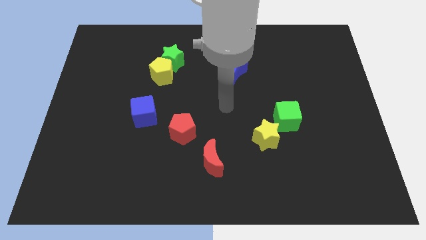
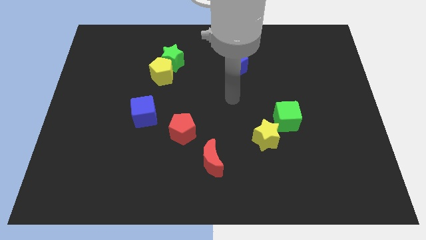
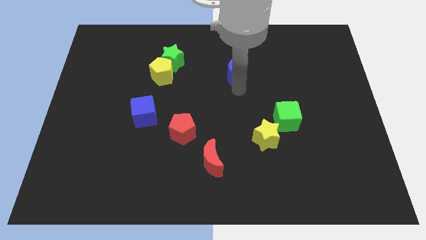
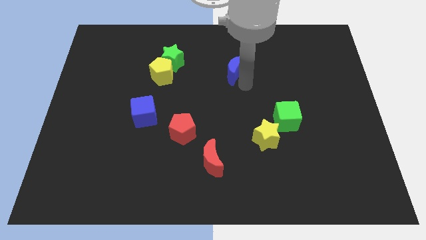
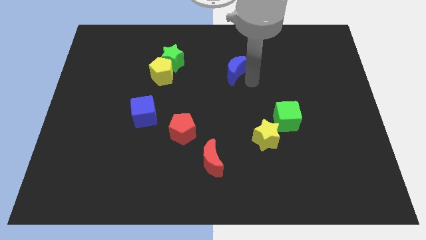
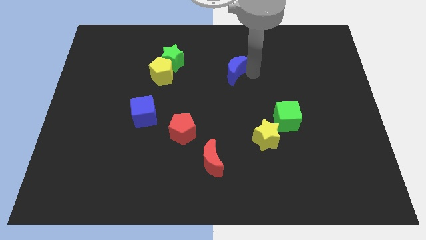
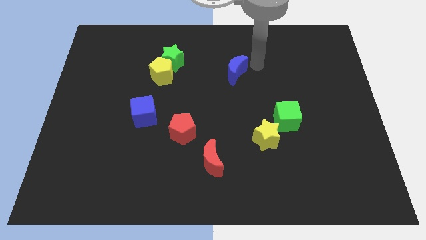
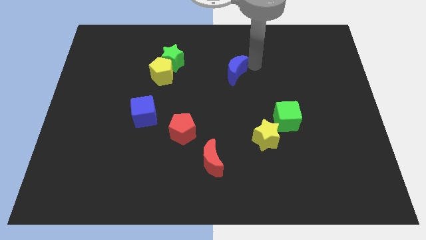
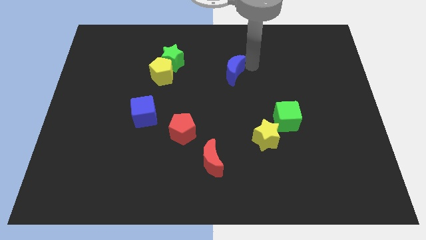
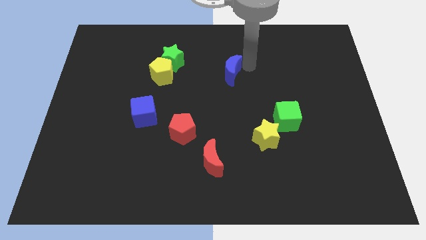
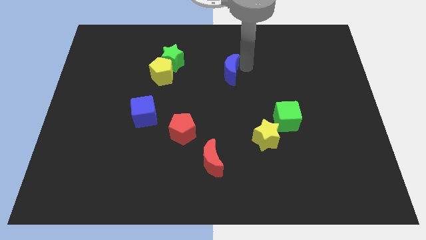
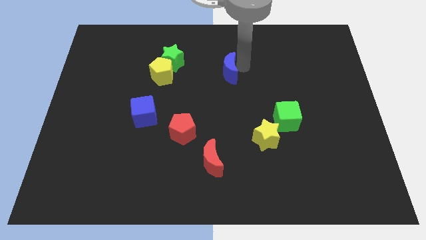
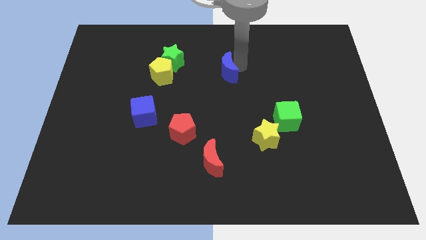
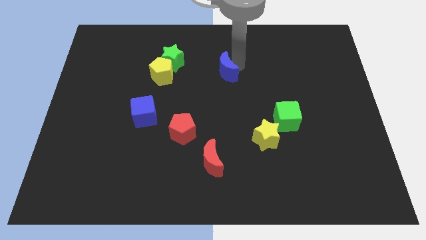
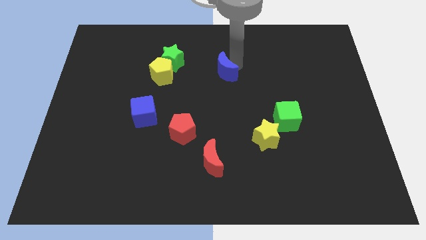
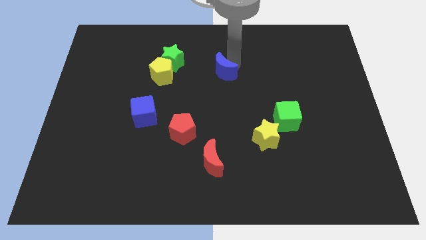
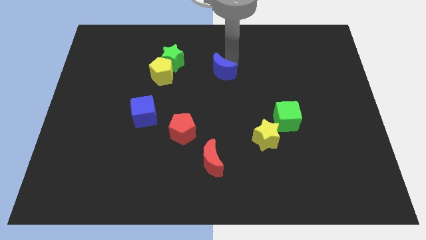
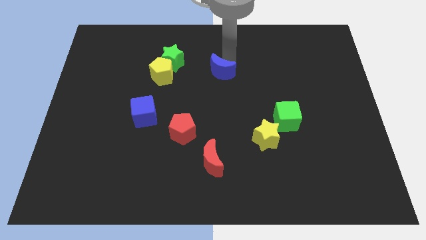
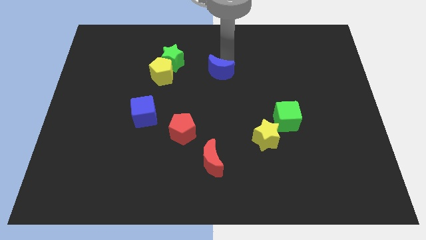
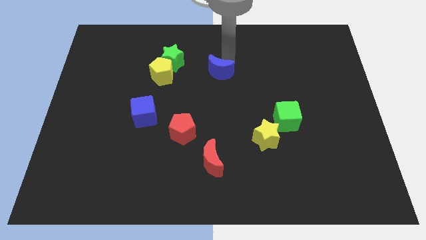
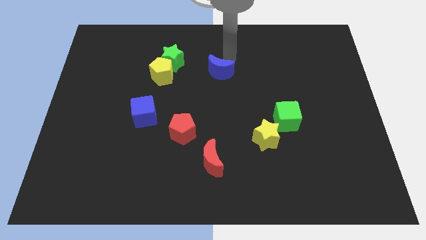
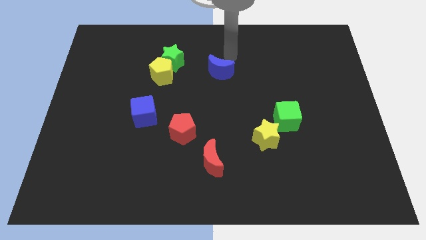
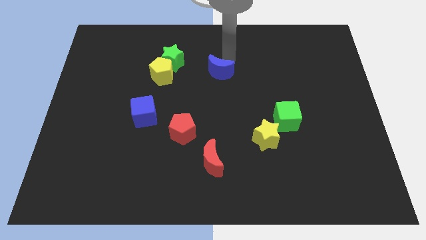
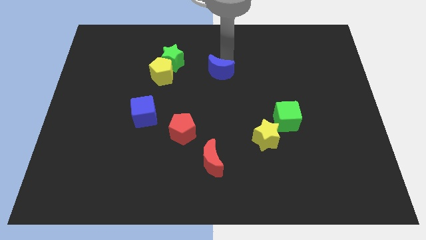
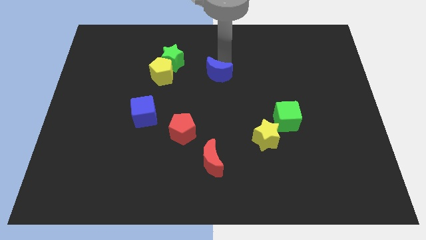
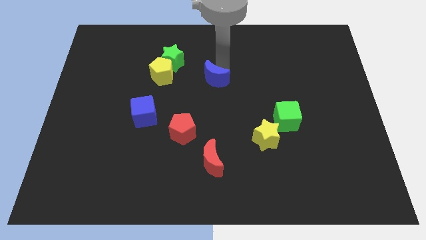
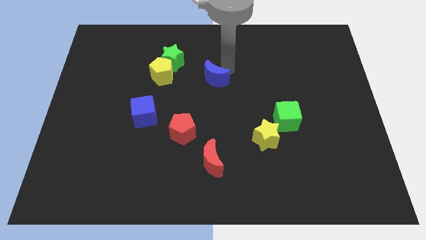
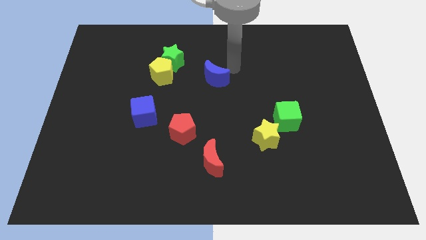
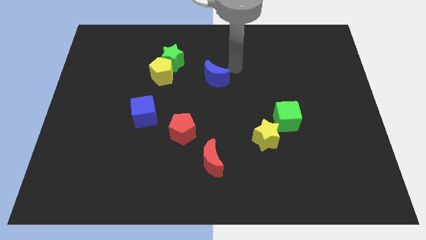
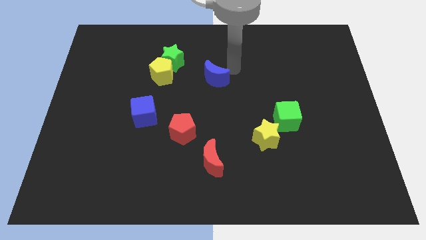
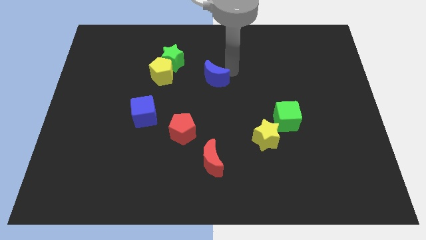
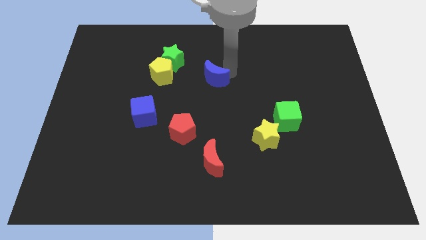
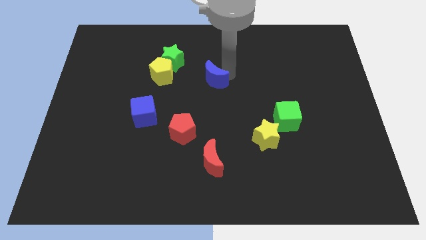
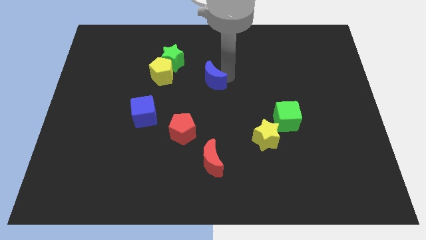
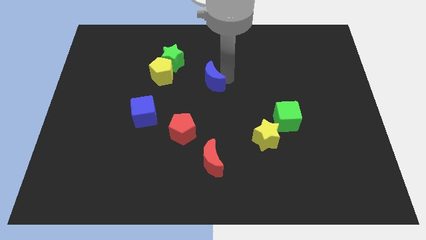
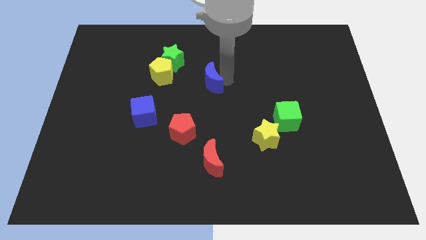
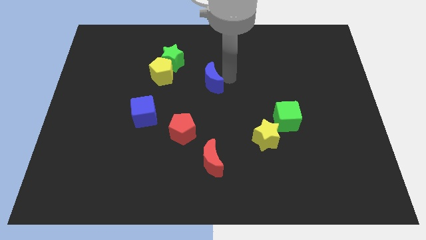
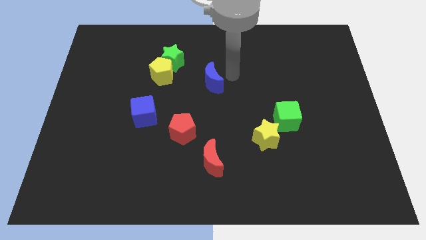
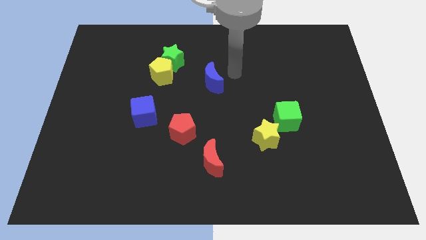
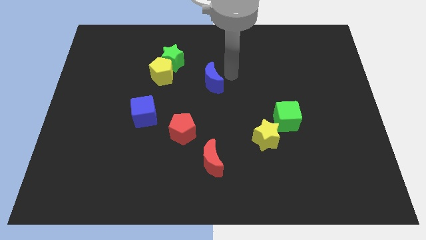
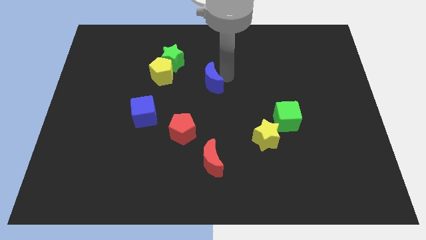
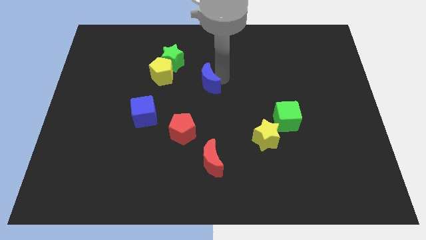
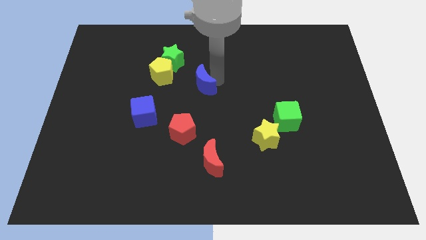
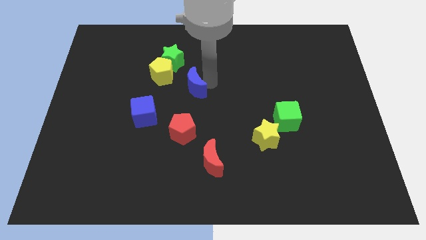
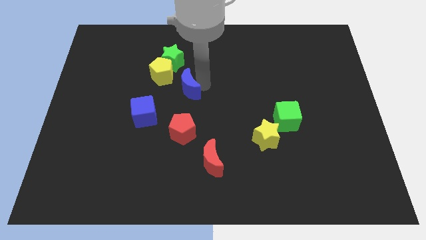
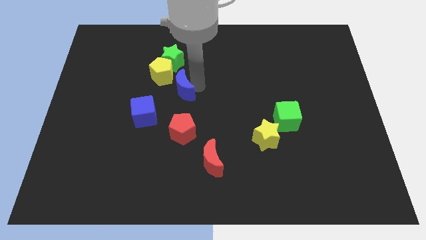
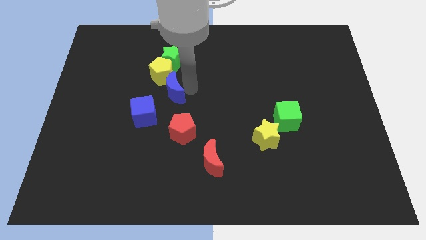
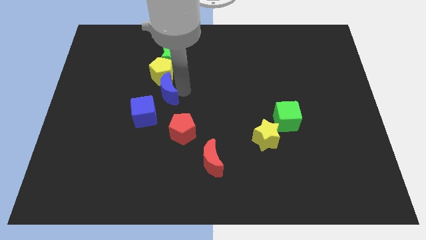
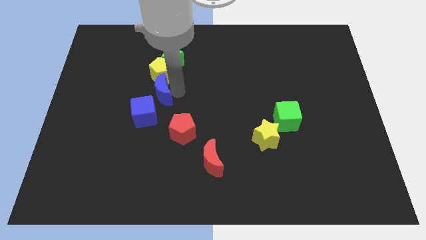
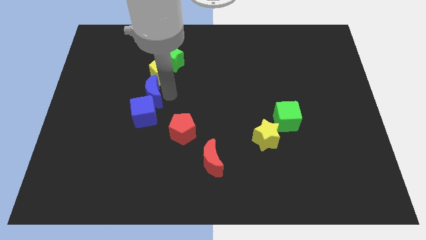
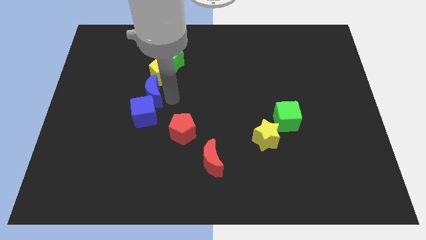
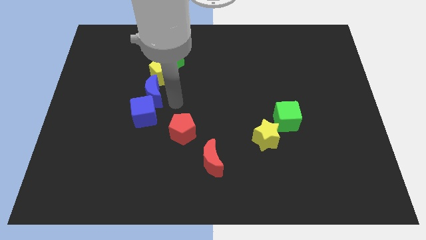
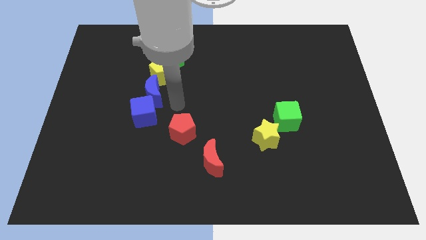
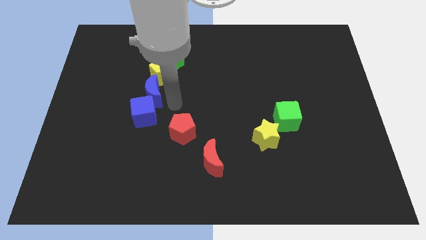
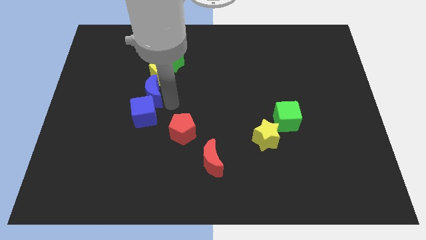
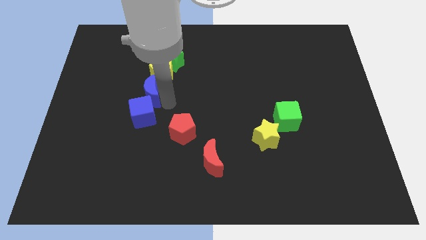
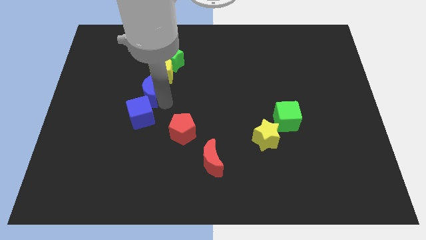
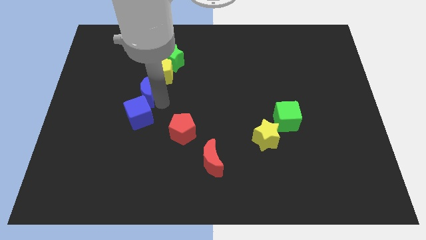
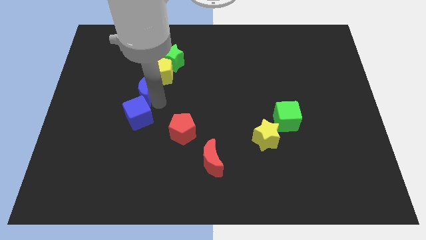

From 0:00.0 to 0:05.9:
push the blue moon left

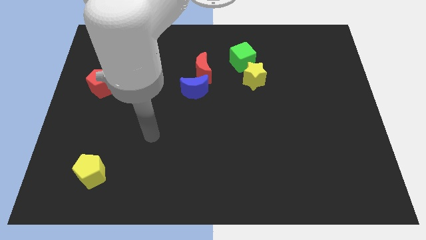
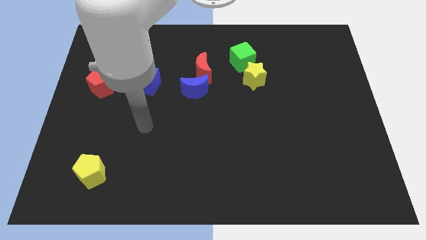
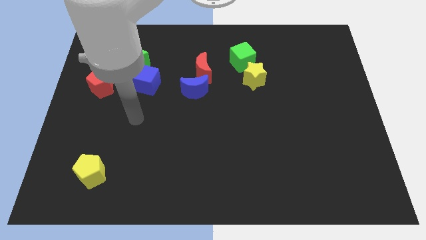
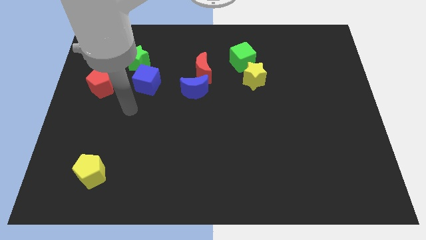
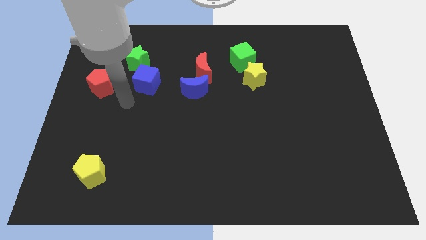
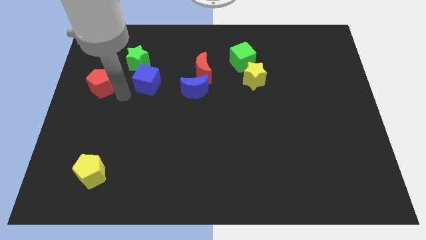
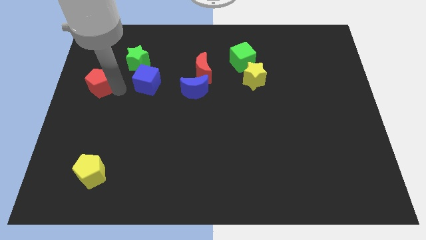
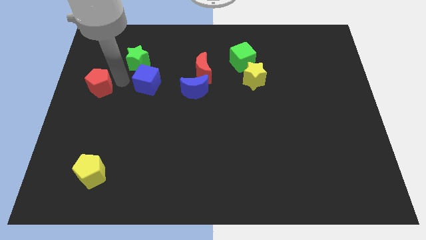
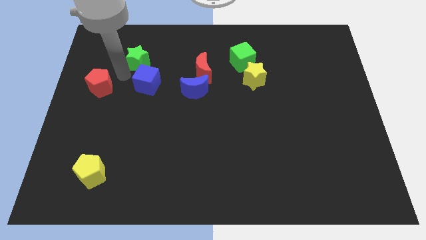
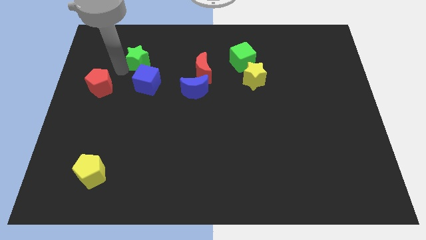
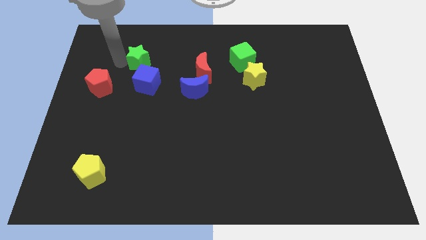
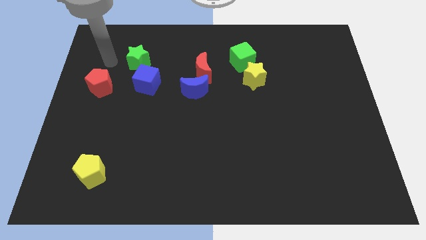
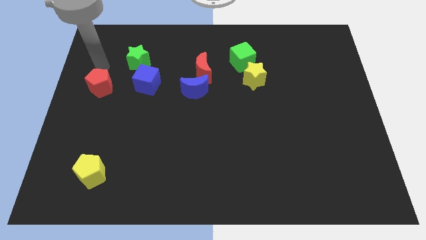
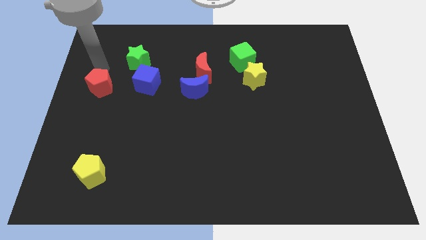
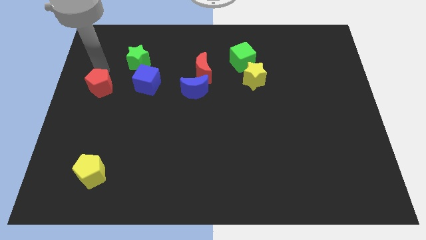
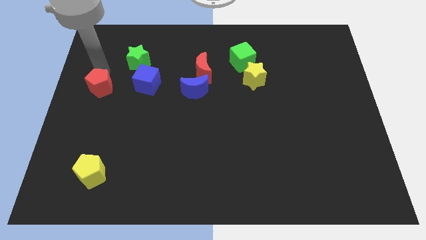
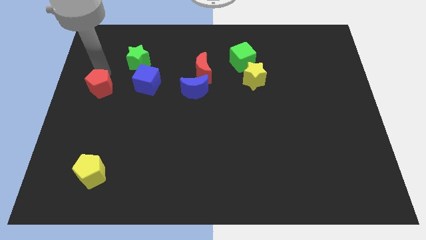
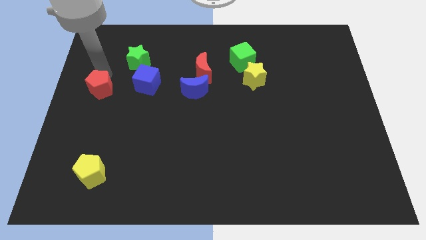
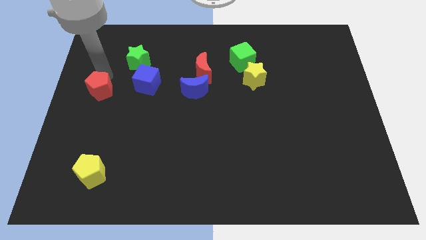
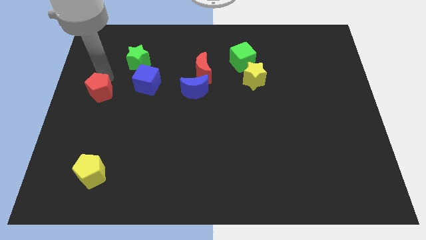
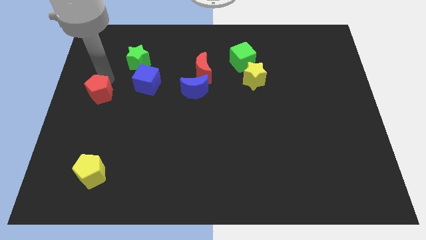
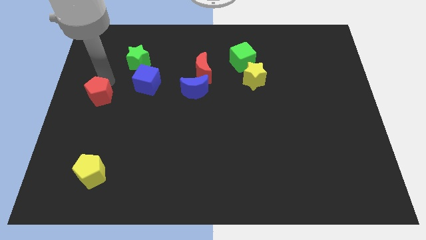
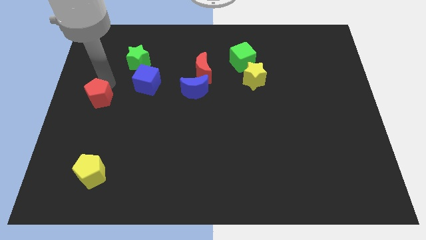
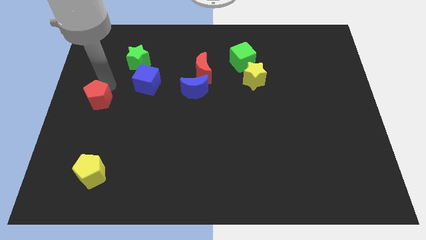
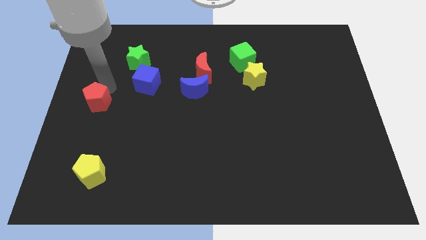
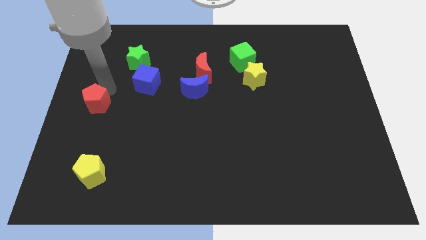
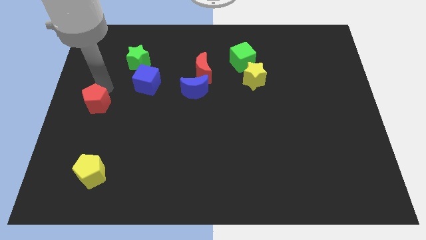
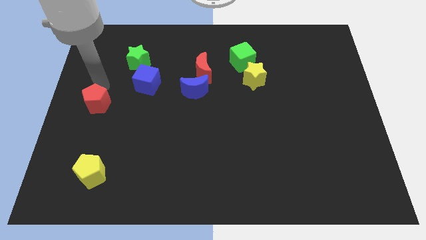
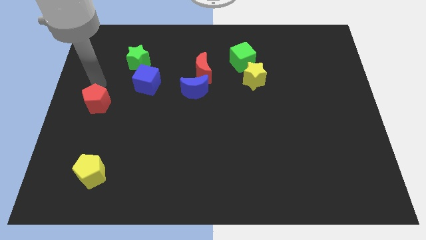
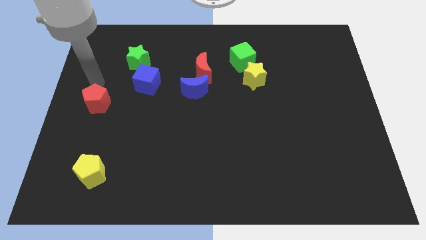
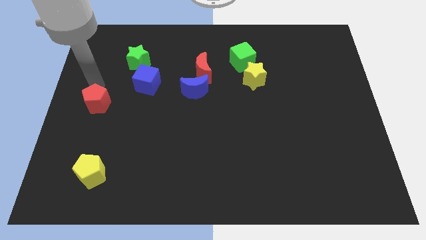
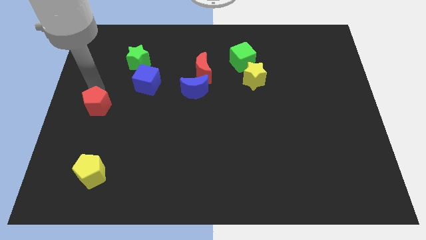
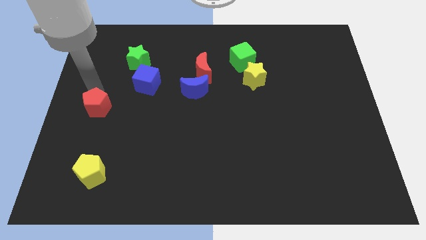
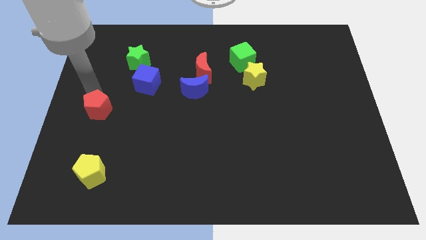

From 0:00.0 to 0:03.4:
slightly slide the red pentagon down
